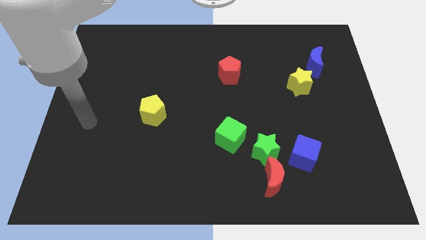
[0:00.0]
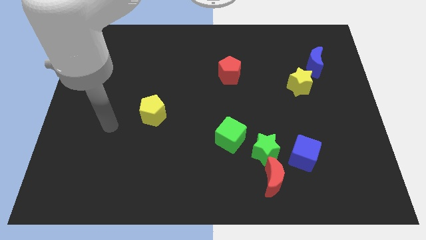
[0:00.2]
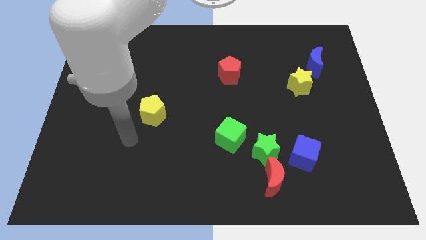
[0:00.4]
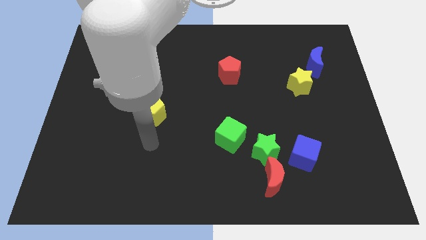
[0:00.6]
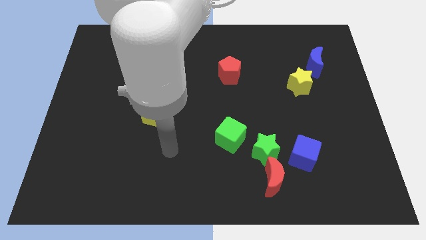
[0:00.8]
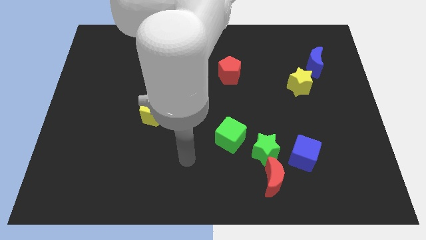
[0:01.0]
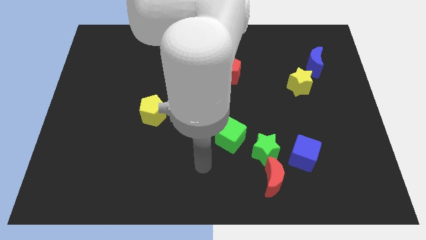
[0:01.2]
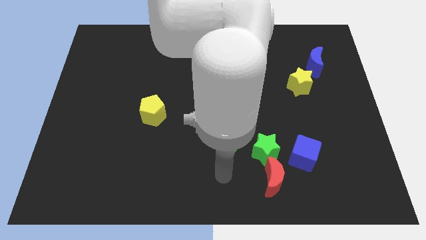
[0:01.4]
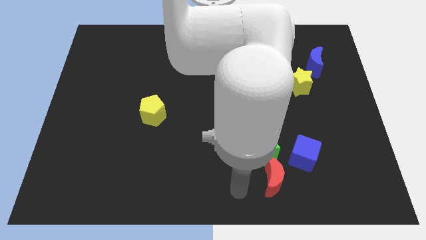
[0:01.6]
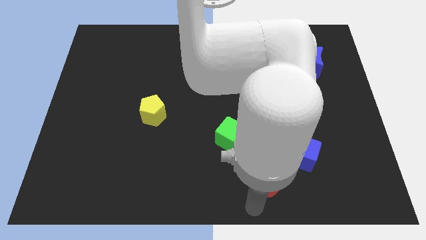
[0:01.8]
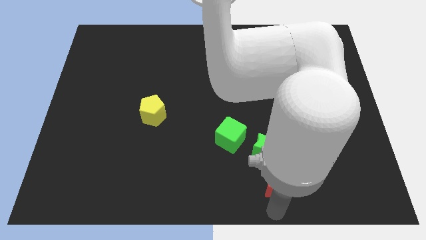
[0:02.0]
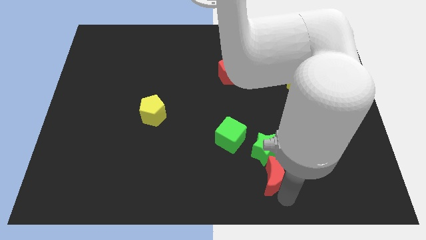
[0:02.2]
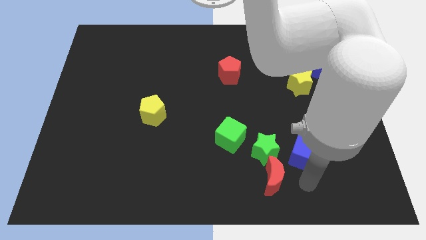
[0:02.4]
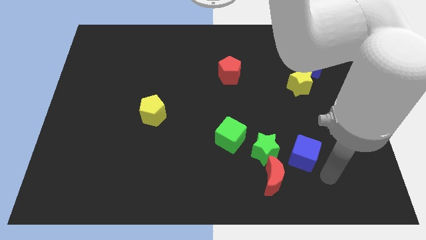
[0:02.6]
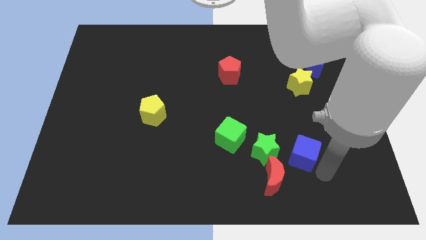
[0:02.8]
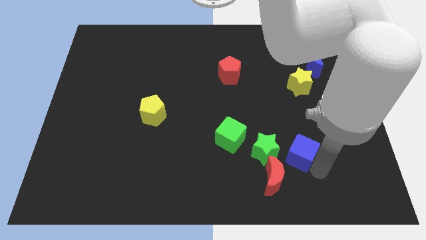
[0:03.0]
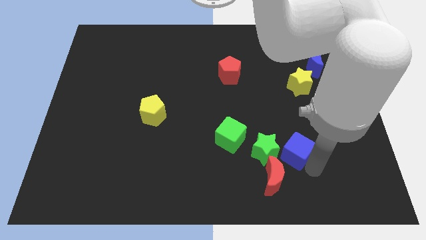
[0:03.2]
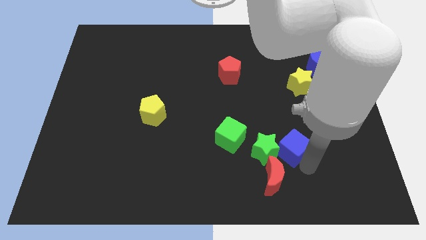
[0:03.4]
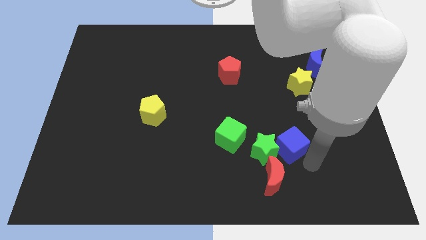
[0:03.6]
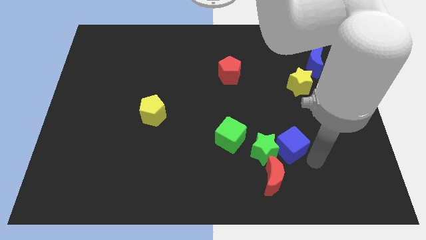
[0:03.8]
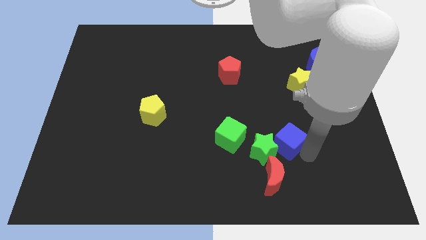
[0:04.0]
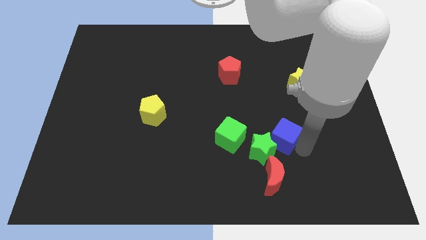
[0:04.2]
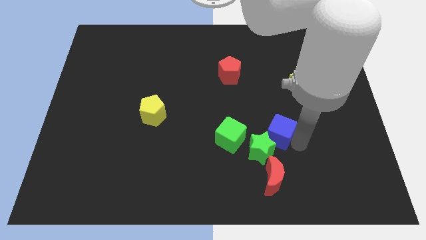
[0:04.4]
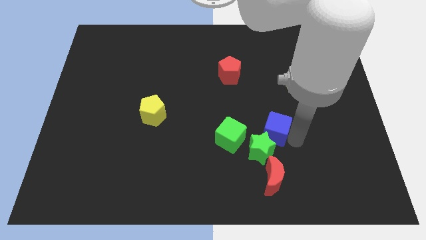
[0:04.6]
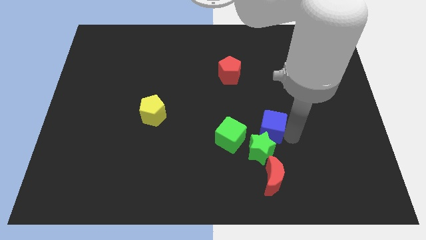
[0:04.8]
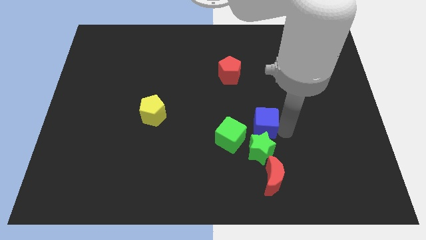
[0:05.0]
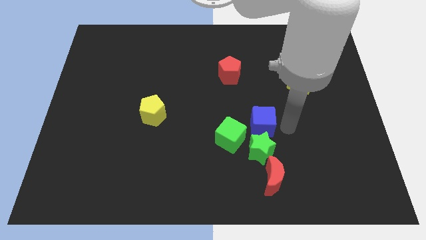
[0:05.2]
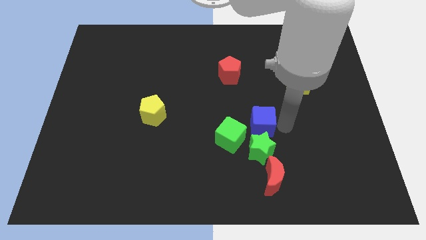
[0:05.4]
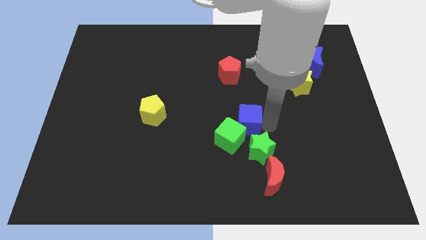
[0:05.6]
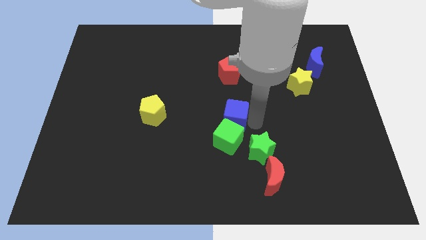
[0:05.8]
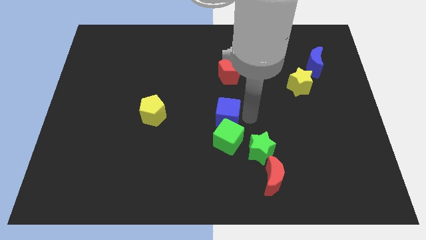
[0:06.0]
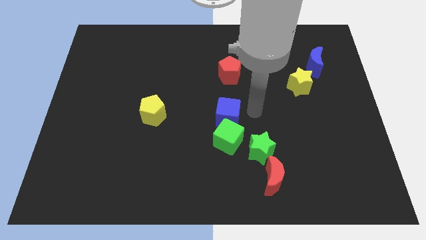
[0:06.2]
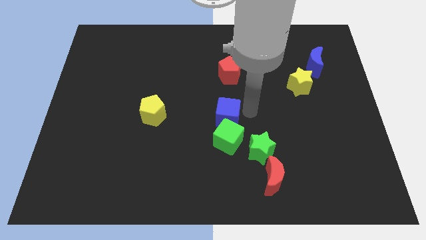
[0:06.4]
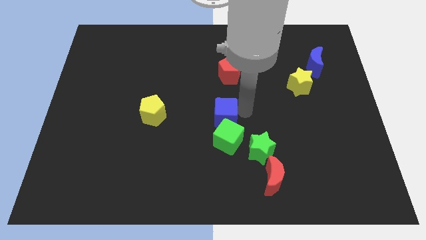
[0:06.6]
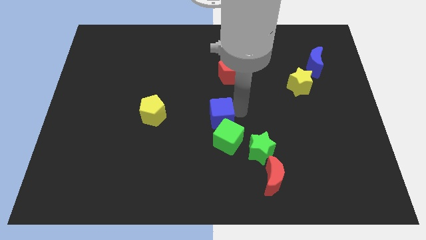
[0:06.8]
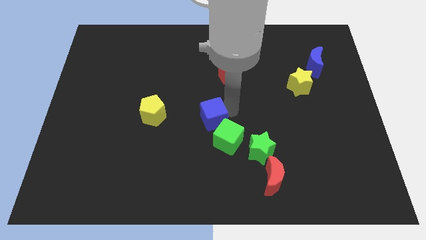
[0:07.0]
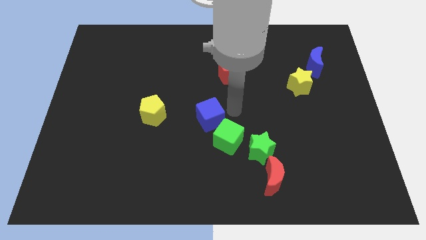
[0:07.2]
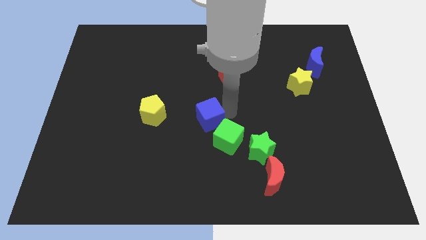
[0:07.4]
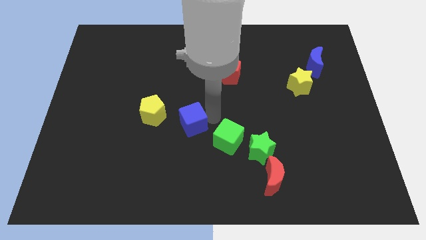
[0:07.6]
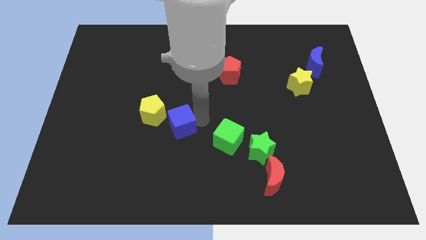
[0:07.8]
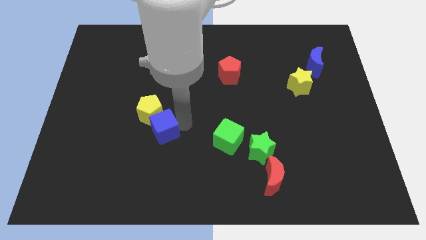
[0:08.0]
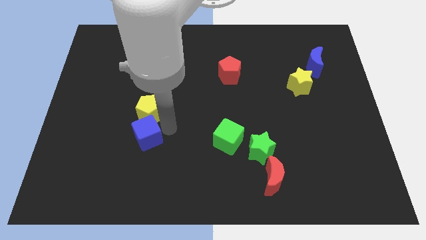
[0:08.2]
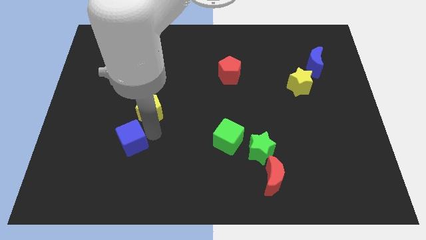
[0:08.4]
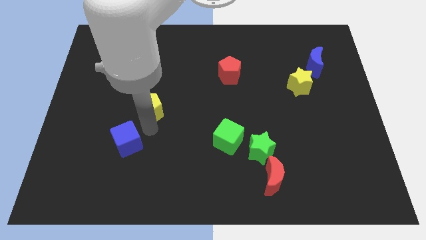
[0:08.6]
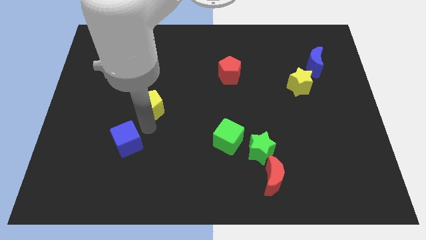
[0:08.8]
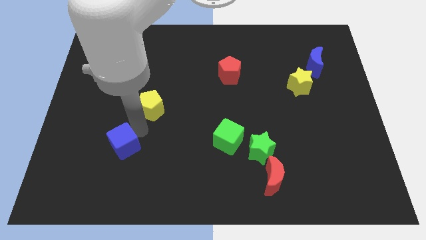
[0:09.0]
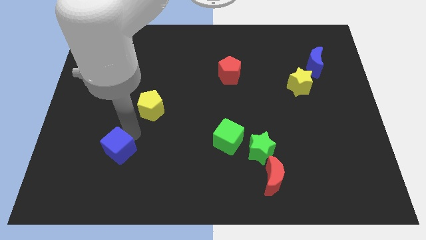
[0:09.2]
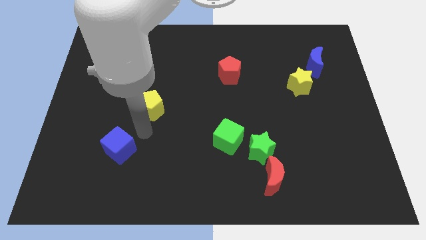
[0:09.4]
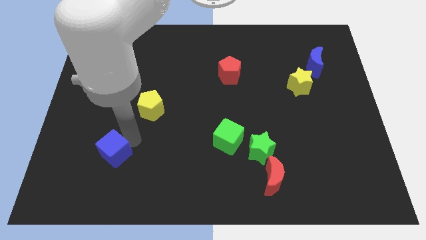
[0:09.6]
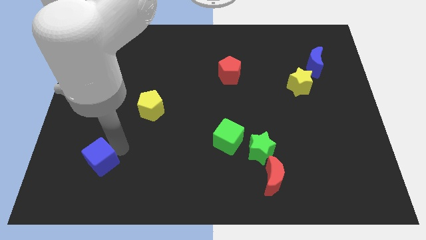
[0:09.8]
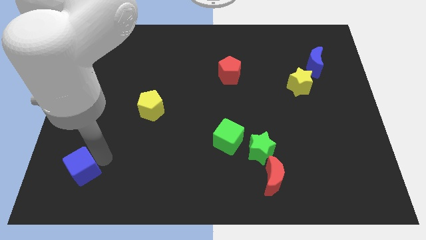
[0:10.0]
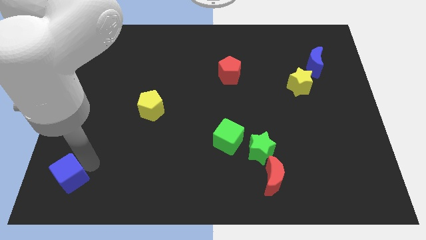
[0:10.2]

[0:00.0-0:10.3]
move the blue cube to the bottom left of the board

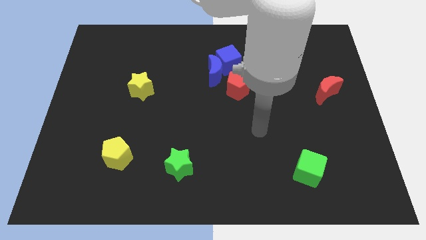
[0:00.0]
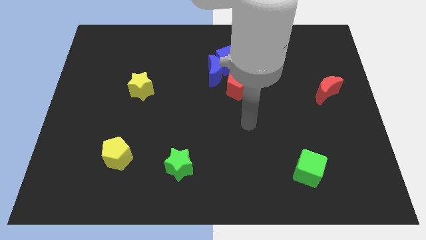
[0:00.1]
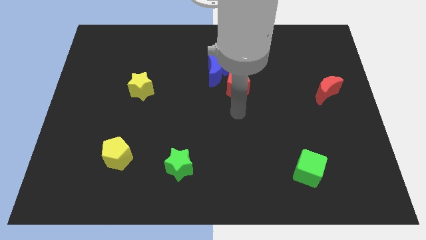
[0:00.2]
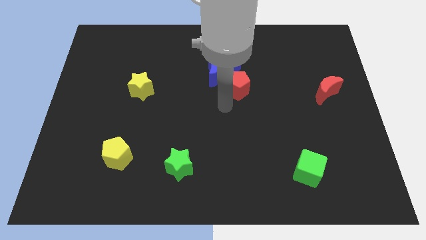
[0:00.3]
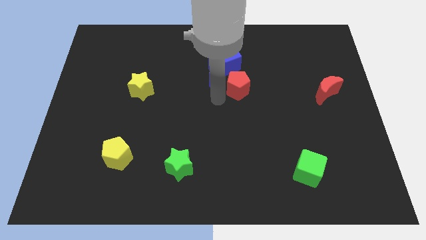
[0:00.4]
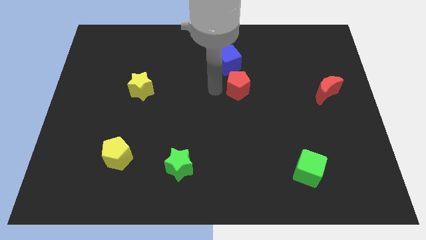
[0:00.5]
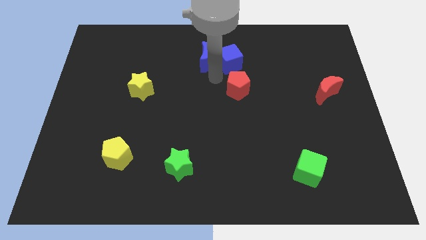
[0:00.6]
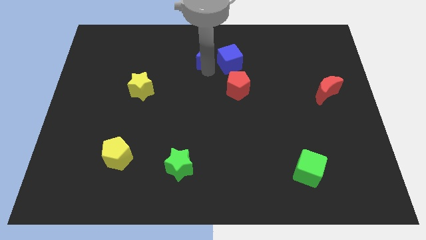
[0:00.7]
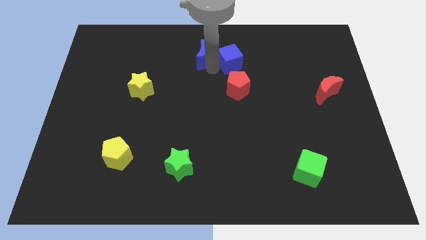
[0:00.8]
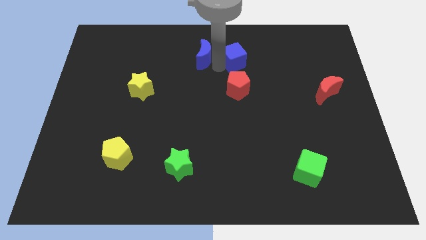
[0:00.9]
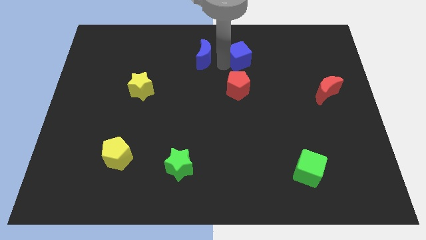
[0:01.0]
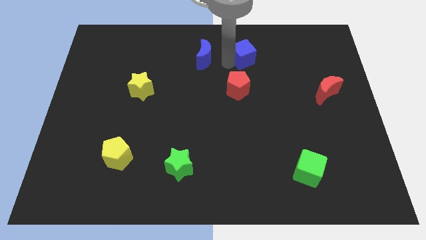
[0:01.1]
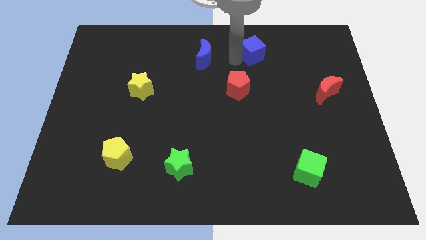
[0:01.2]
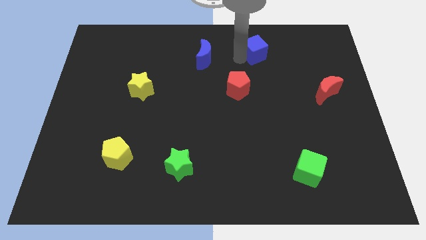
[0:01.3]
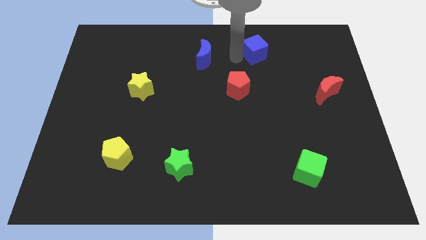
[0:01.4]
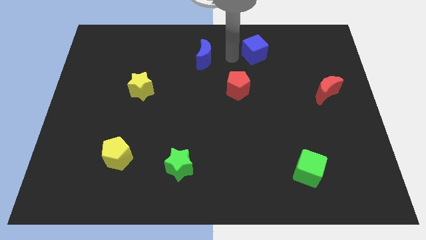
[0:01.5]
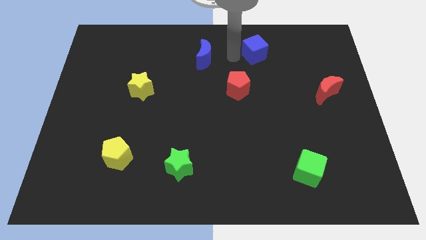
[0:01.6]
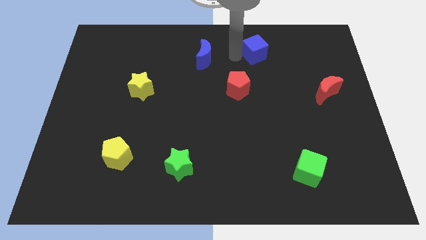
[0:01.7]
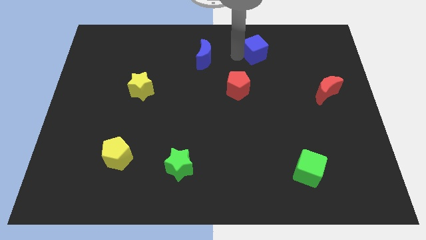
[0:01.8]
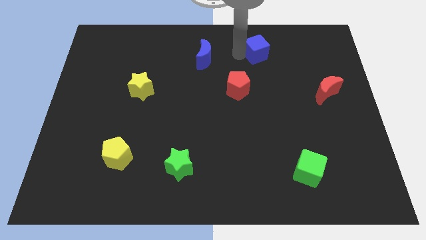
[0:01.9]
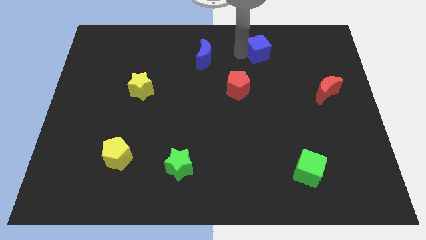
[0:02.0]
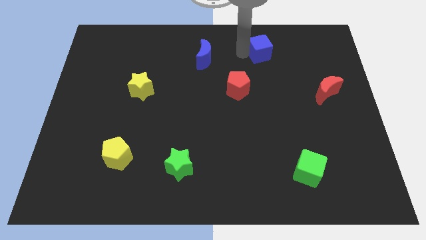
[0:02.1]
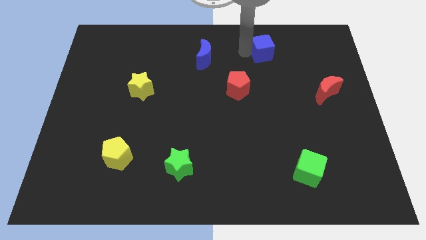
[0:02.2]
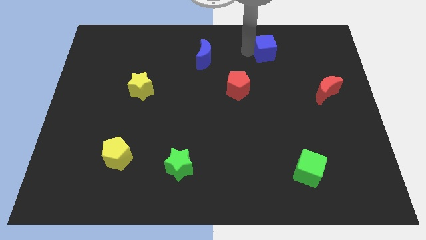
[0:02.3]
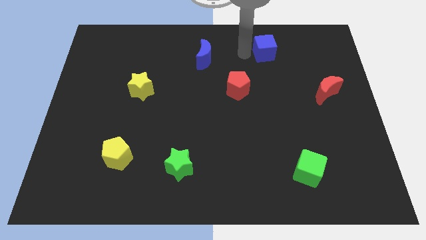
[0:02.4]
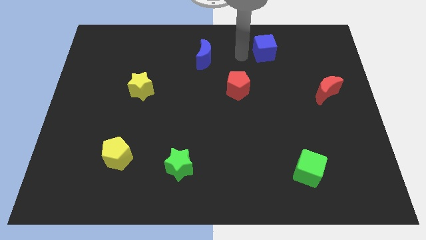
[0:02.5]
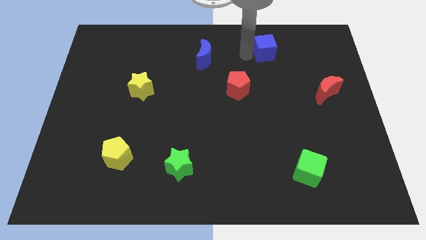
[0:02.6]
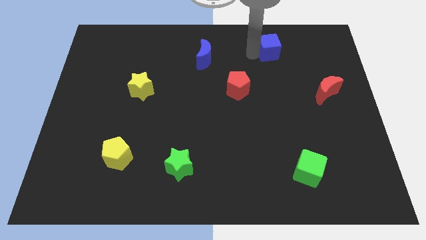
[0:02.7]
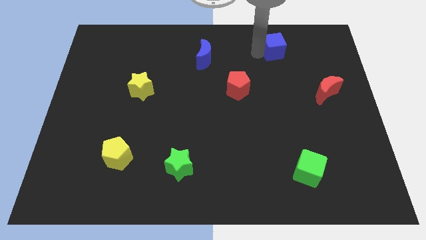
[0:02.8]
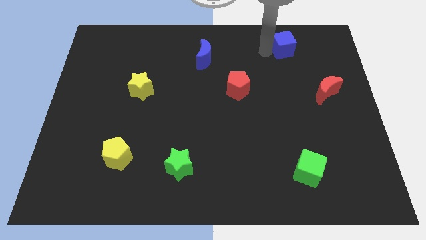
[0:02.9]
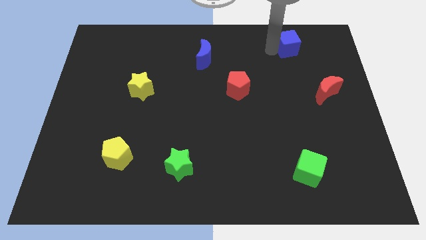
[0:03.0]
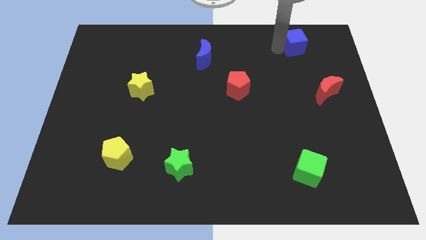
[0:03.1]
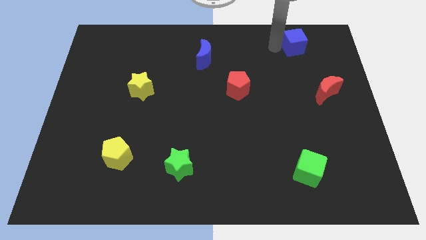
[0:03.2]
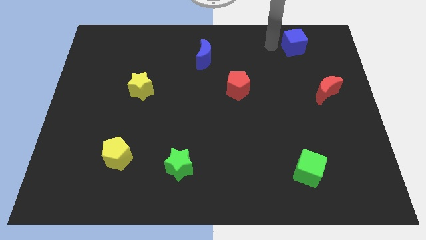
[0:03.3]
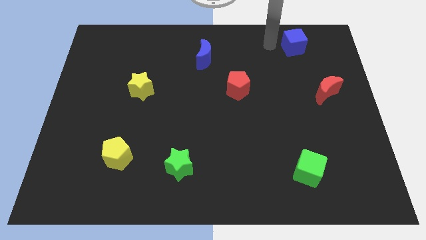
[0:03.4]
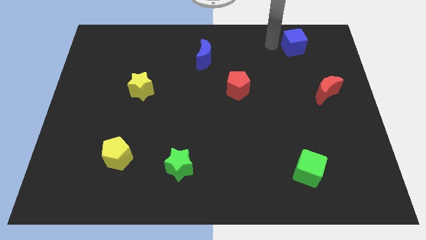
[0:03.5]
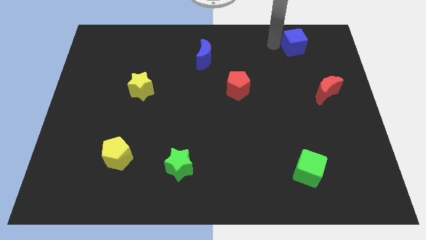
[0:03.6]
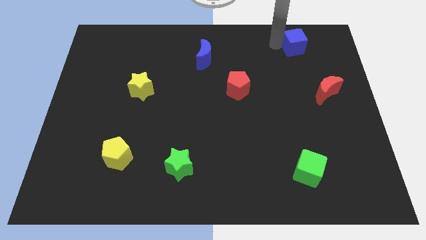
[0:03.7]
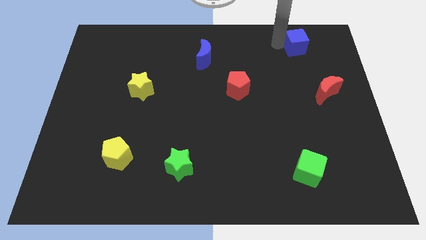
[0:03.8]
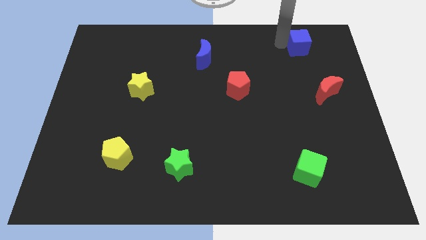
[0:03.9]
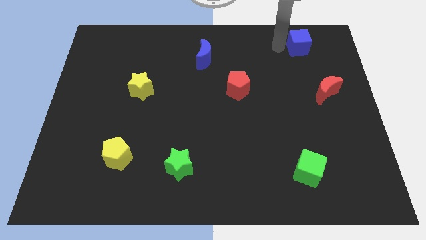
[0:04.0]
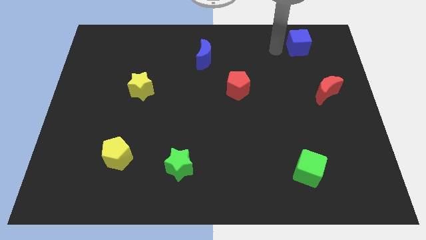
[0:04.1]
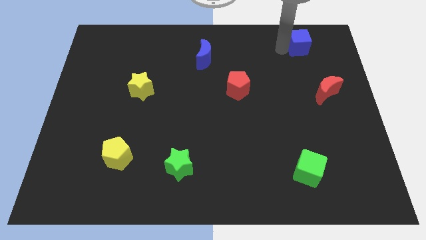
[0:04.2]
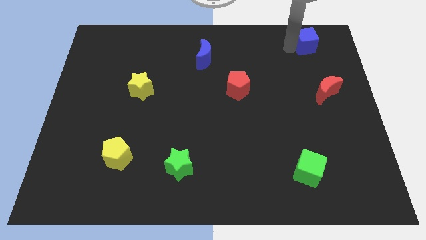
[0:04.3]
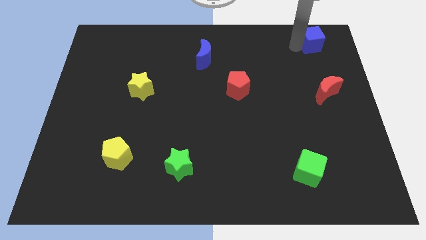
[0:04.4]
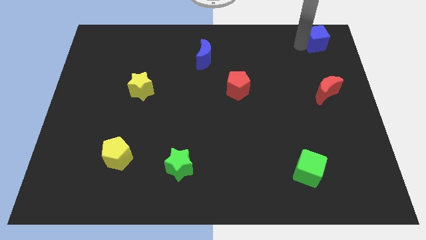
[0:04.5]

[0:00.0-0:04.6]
push the blue cube to the upper right corner
